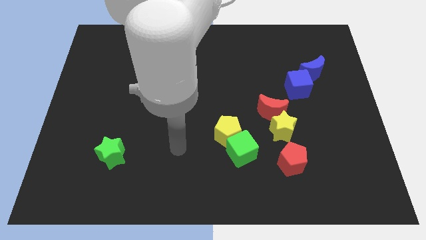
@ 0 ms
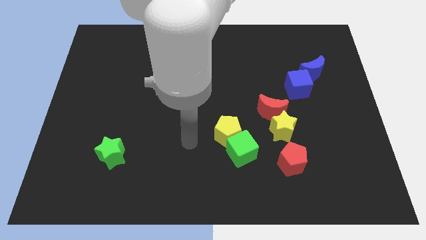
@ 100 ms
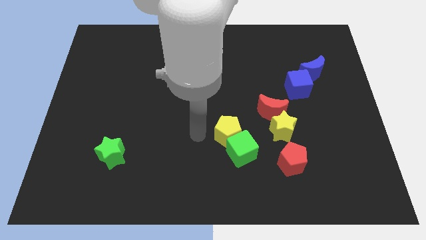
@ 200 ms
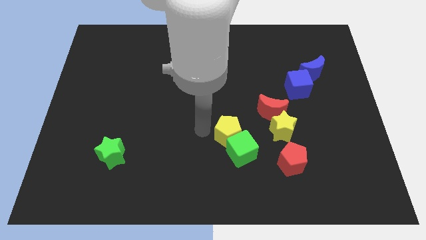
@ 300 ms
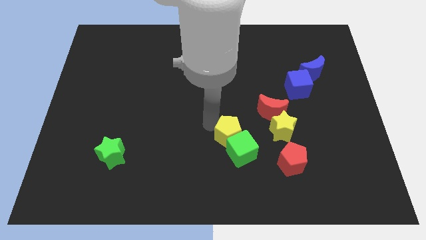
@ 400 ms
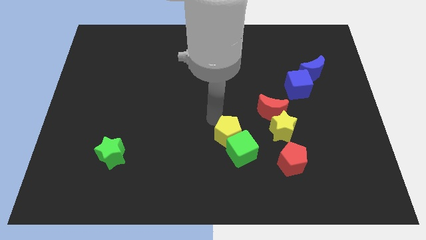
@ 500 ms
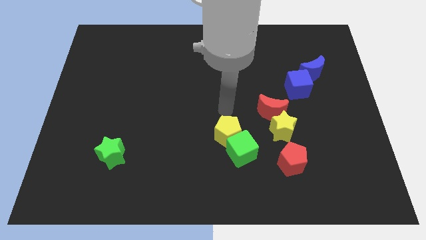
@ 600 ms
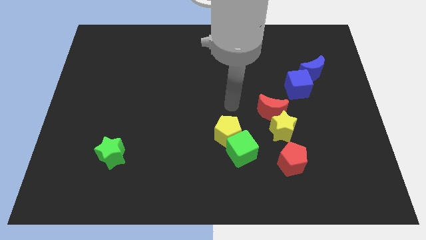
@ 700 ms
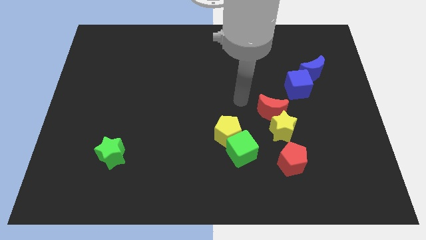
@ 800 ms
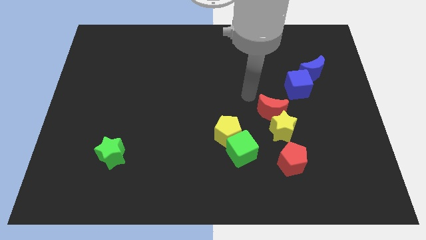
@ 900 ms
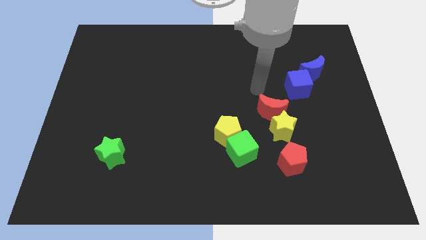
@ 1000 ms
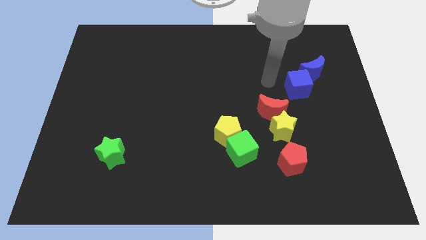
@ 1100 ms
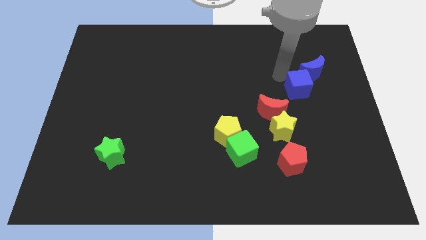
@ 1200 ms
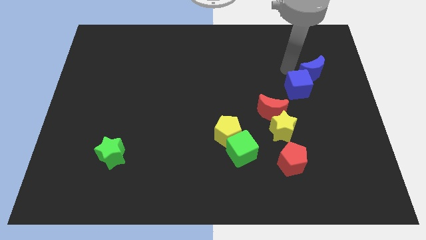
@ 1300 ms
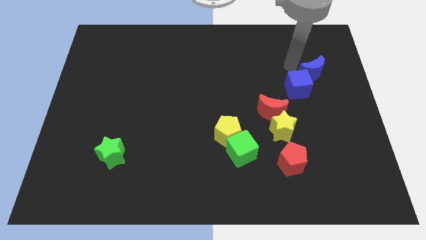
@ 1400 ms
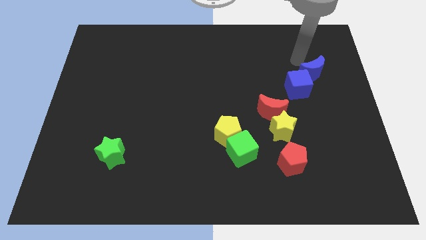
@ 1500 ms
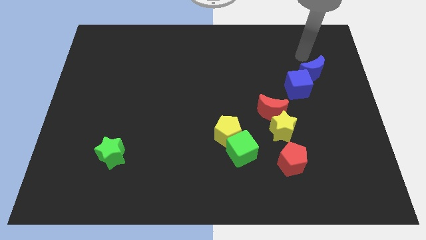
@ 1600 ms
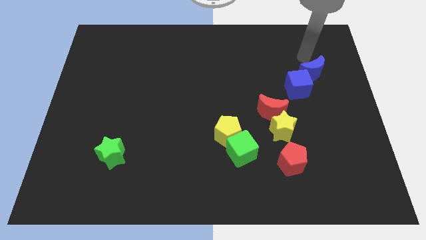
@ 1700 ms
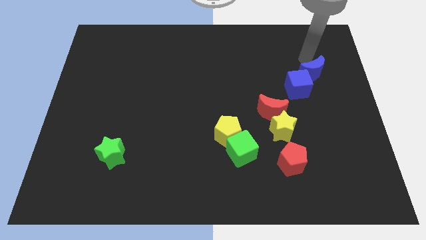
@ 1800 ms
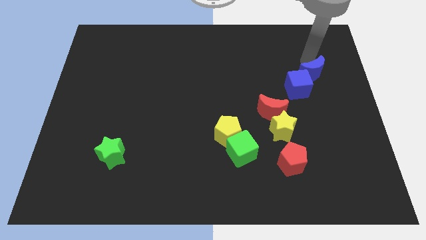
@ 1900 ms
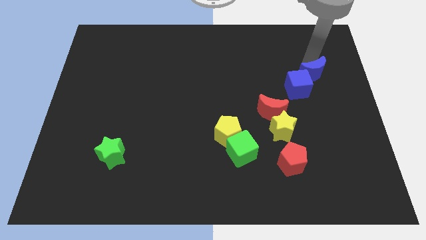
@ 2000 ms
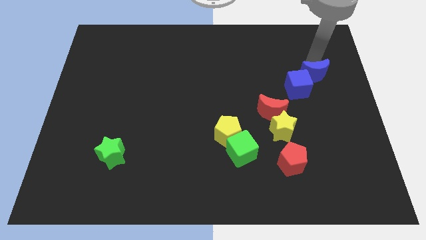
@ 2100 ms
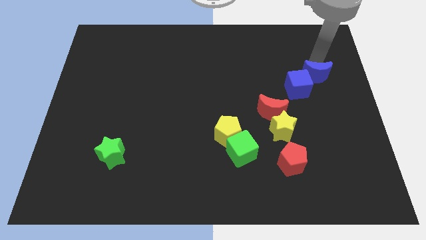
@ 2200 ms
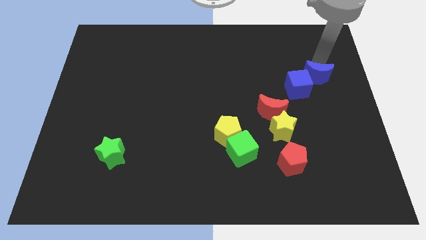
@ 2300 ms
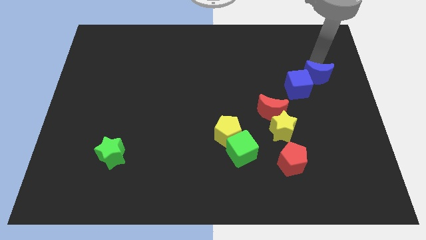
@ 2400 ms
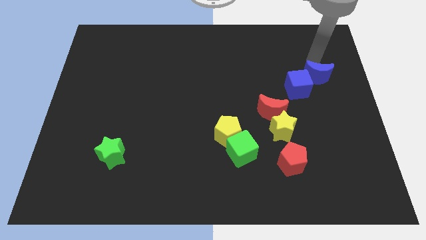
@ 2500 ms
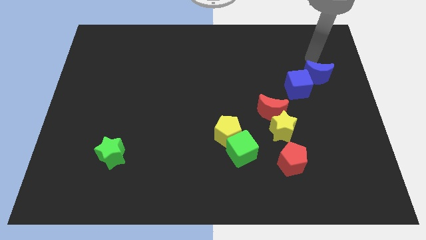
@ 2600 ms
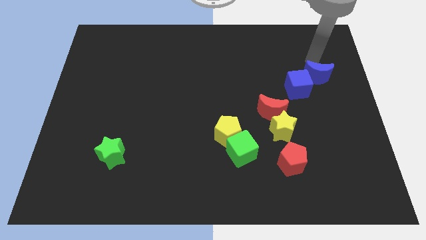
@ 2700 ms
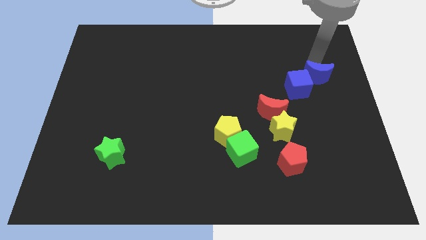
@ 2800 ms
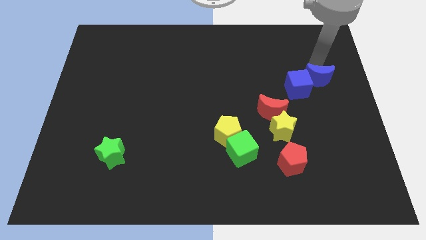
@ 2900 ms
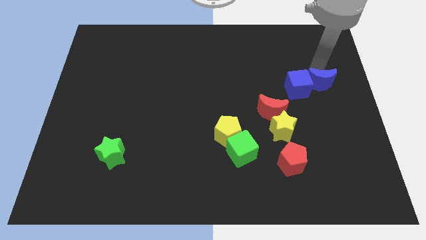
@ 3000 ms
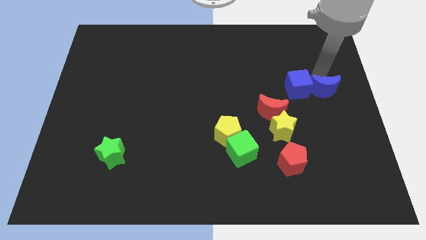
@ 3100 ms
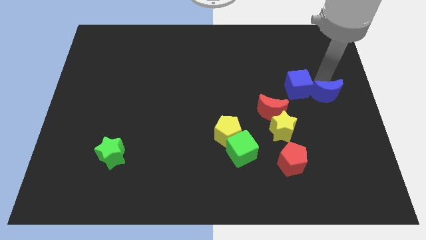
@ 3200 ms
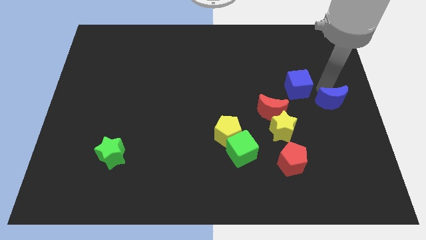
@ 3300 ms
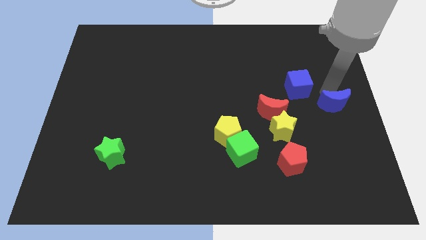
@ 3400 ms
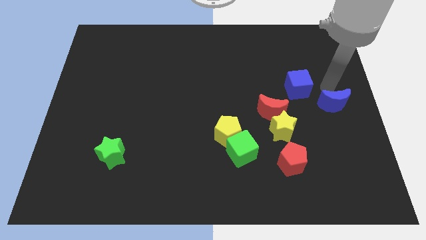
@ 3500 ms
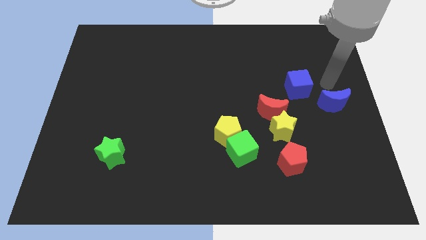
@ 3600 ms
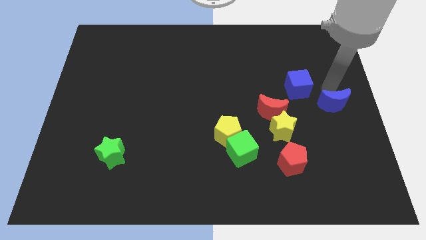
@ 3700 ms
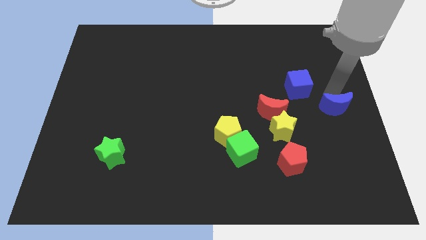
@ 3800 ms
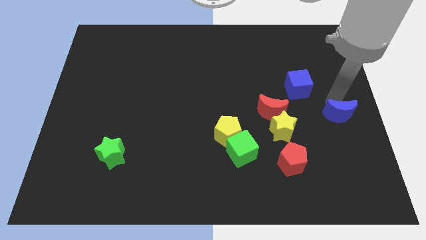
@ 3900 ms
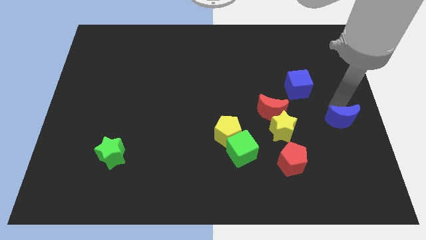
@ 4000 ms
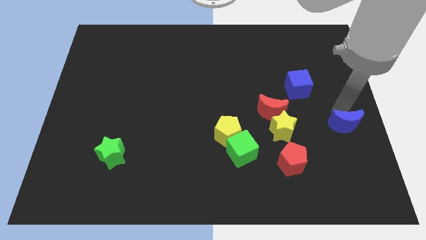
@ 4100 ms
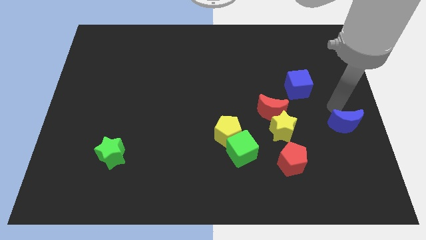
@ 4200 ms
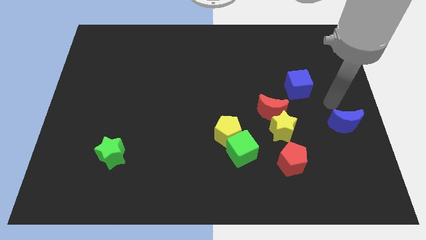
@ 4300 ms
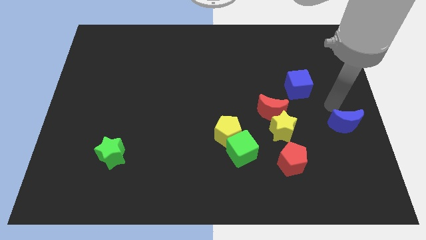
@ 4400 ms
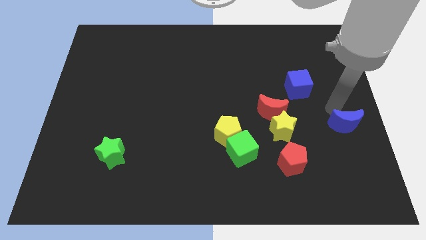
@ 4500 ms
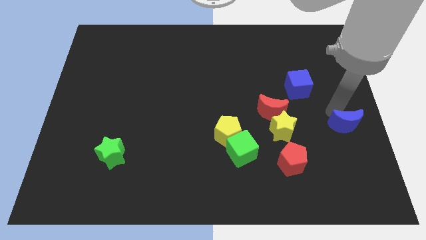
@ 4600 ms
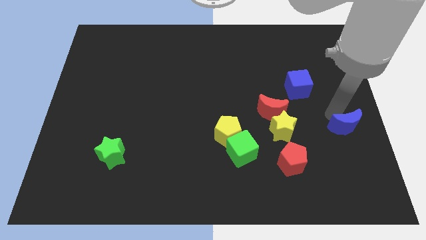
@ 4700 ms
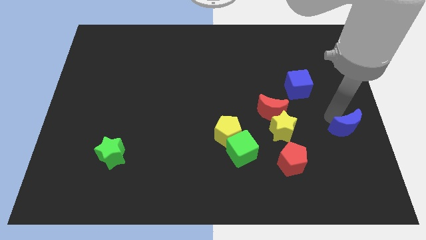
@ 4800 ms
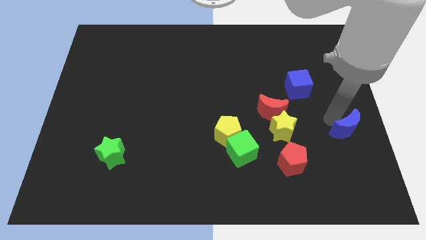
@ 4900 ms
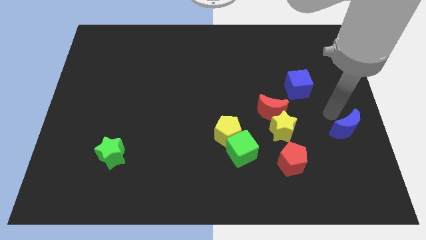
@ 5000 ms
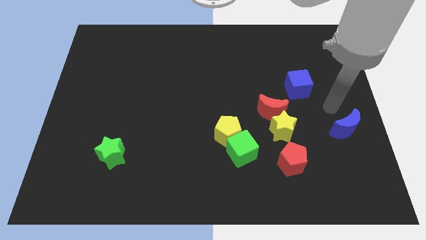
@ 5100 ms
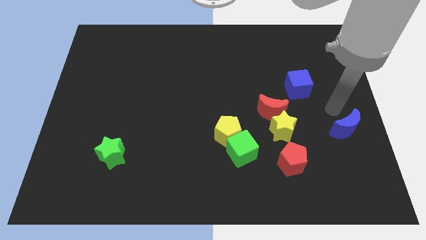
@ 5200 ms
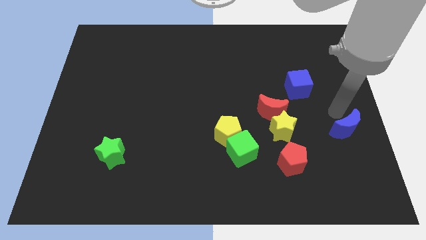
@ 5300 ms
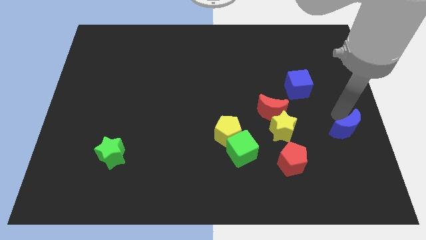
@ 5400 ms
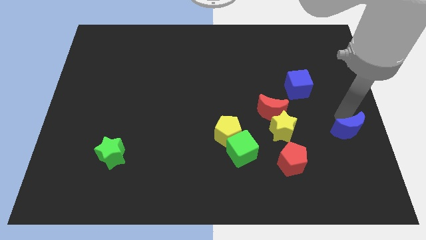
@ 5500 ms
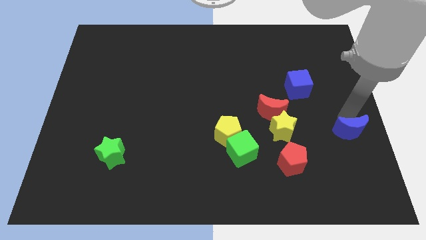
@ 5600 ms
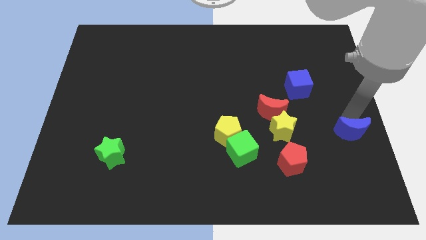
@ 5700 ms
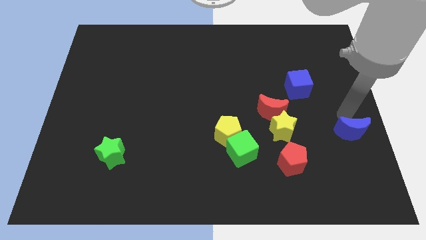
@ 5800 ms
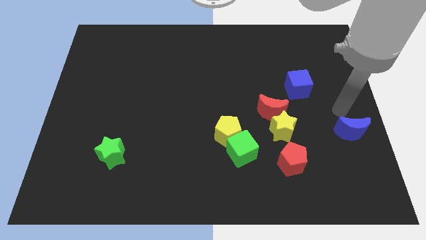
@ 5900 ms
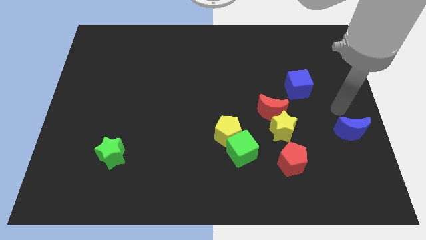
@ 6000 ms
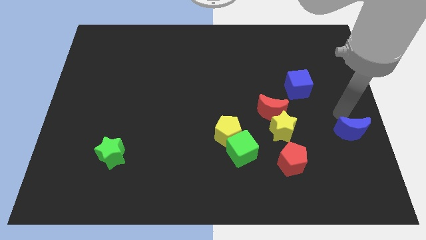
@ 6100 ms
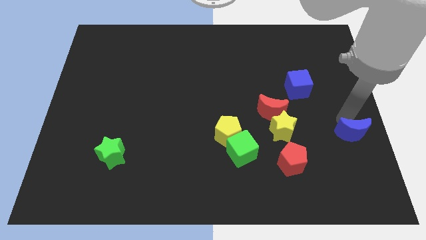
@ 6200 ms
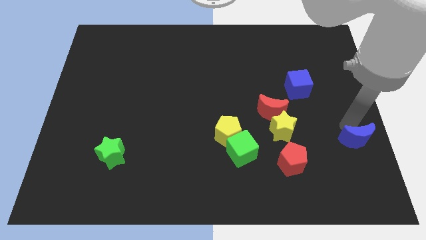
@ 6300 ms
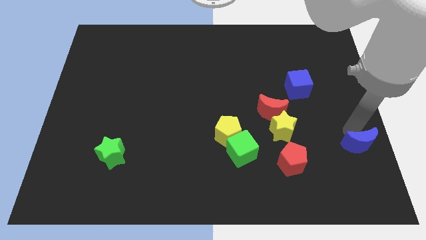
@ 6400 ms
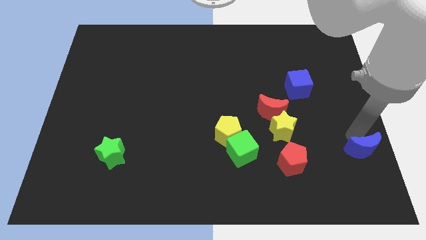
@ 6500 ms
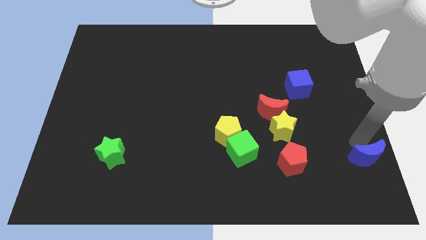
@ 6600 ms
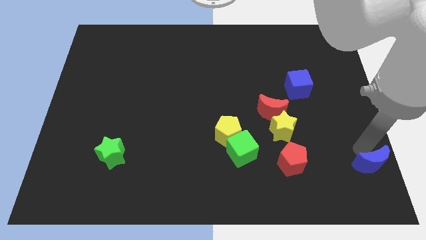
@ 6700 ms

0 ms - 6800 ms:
slide the blue moon to the bottom right corner
